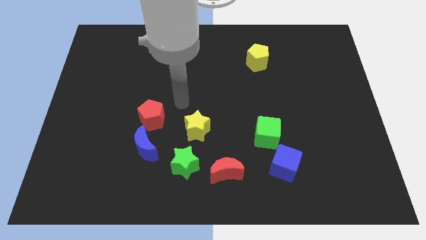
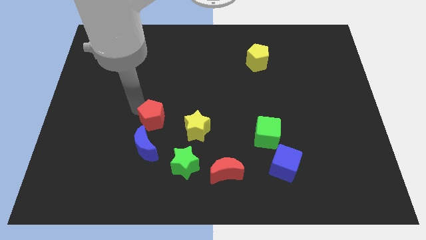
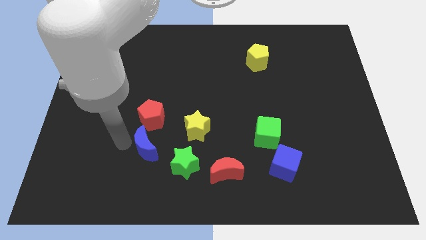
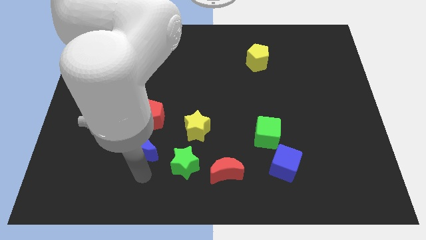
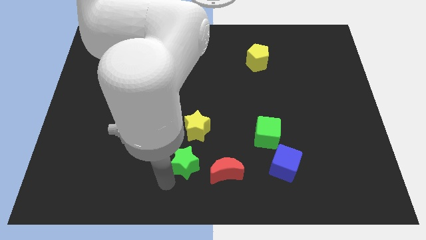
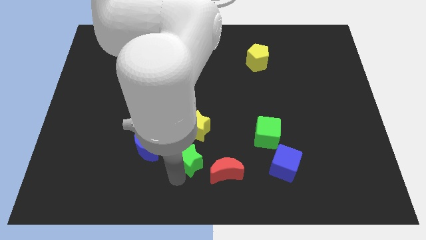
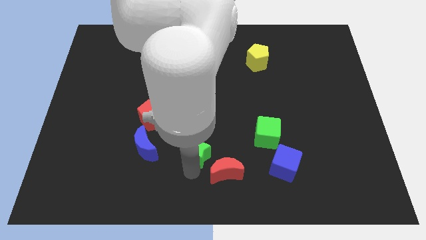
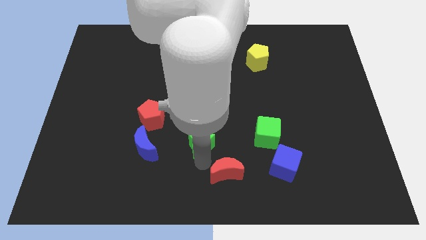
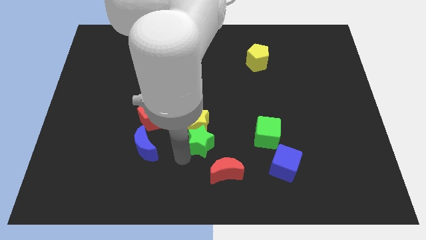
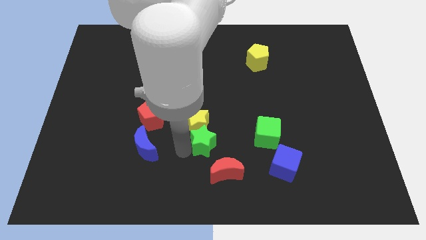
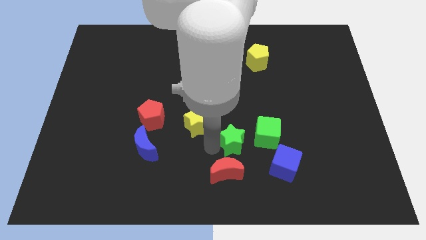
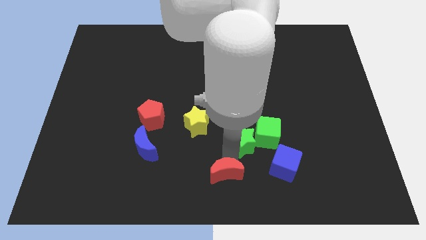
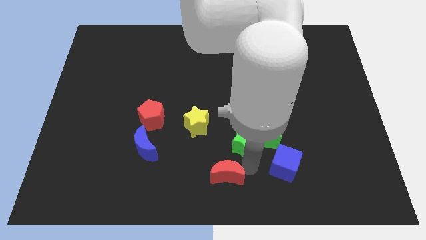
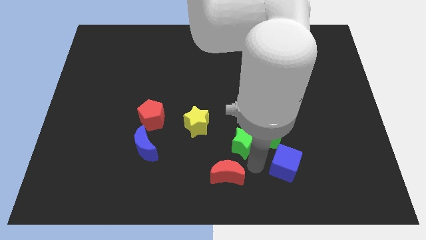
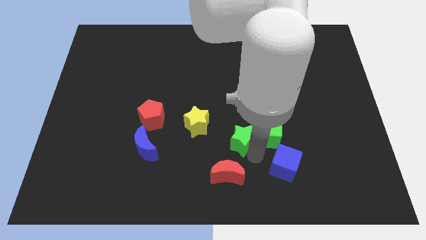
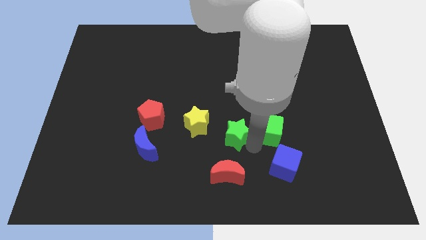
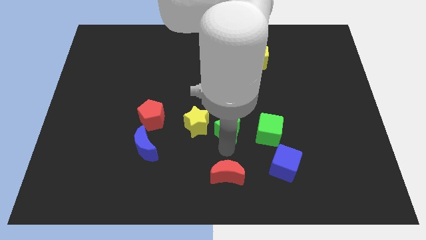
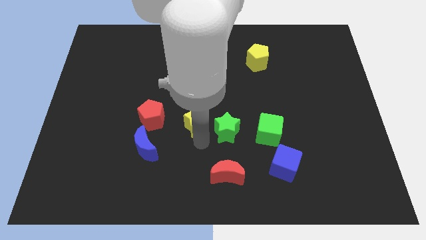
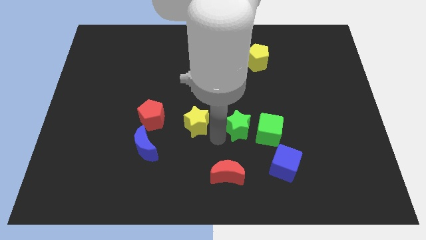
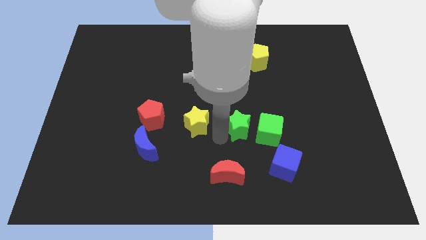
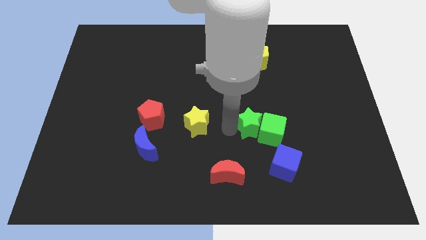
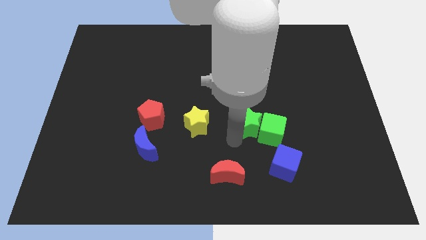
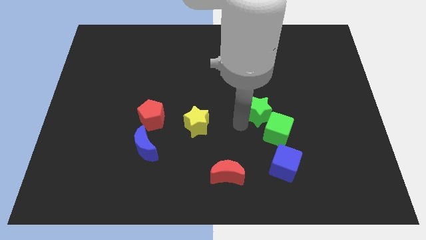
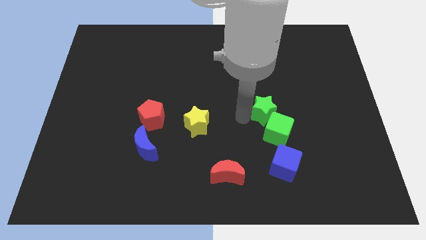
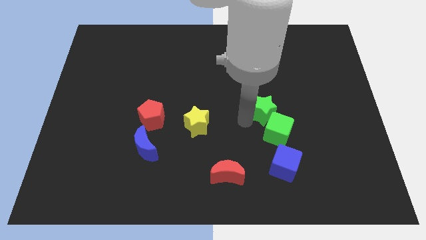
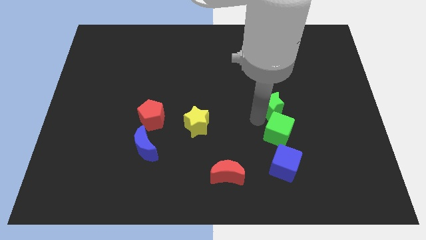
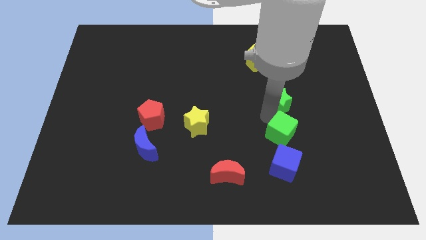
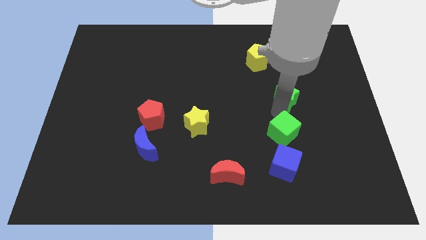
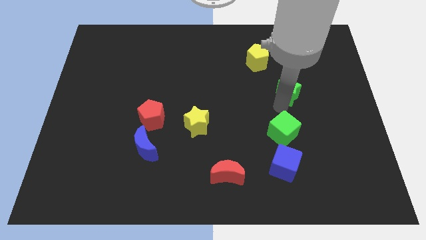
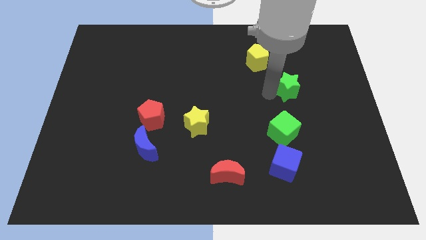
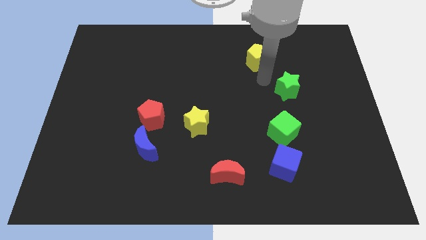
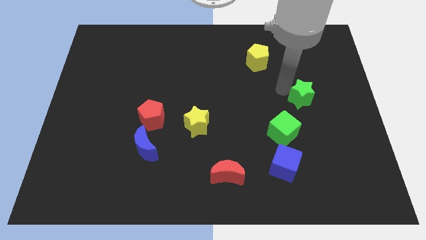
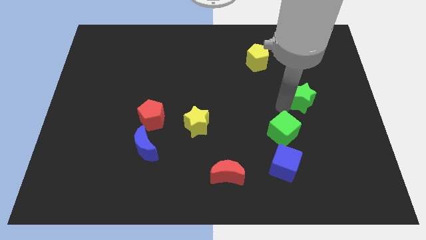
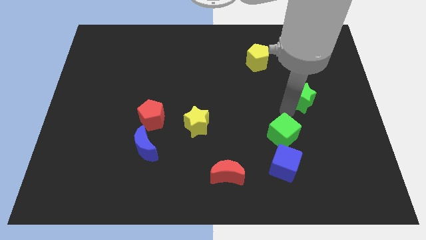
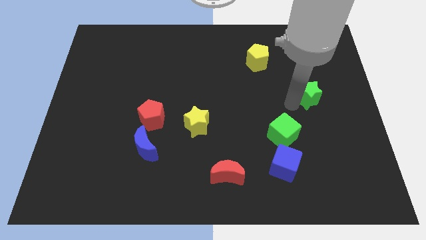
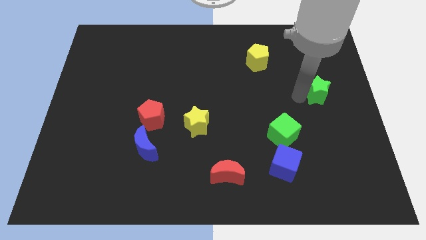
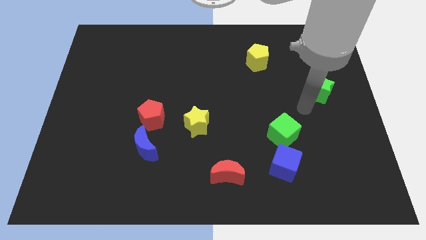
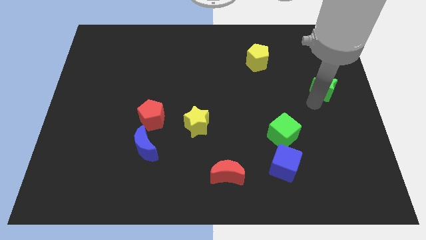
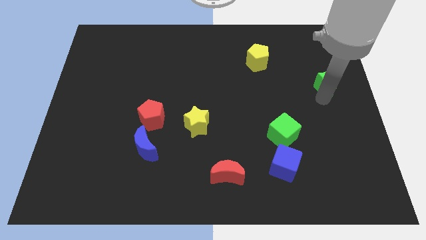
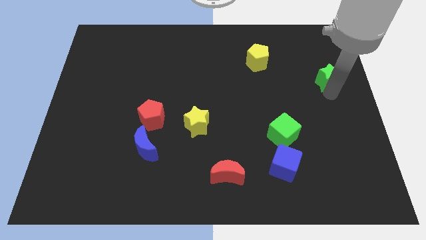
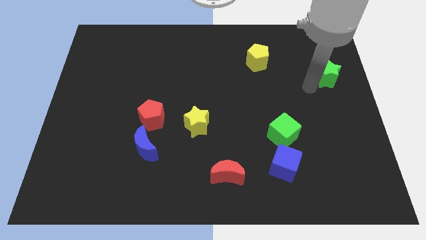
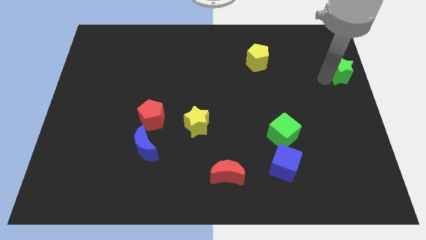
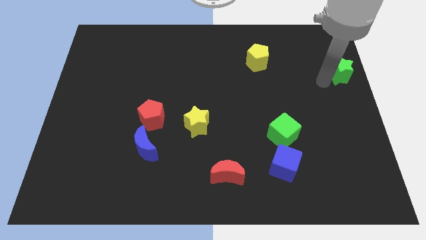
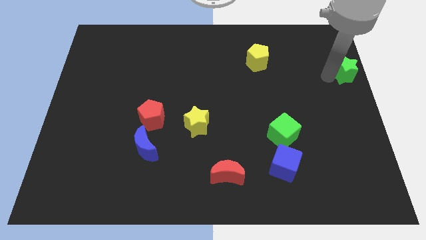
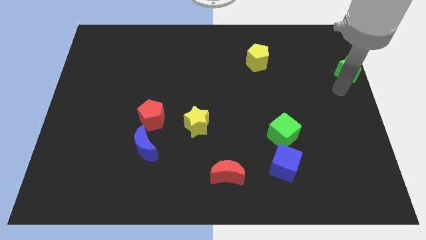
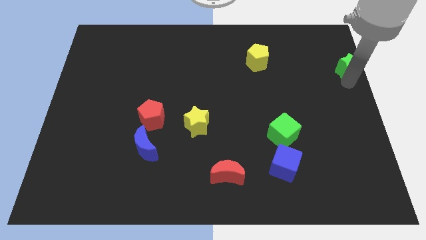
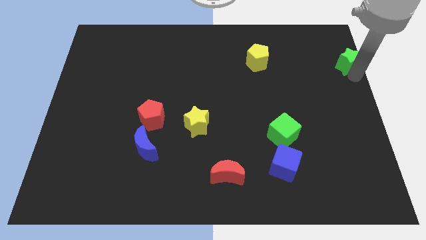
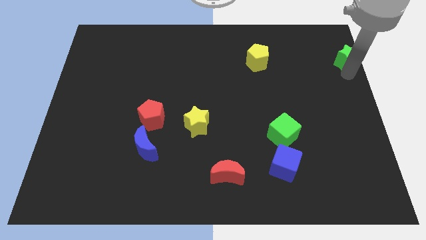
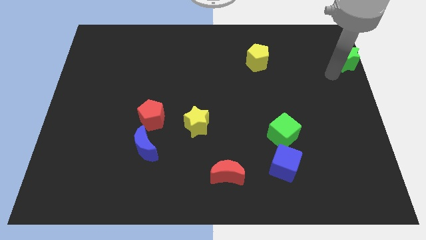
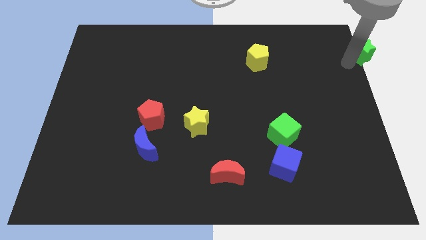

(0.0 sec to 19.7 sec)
slide the green star to the upper right corner

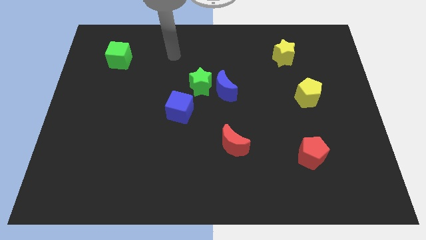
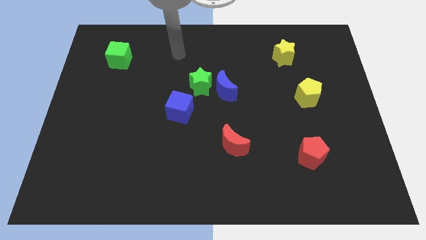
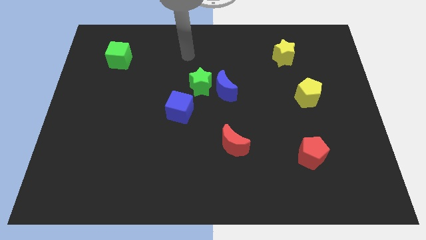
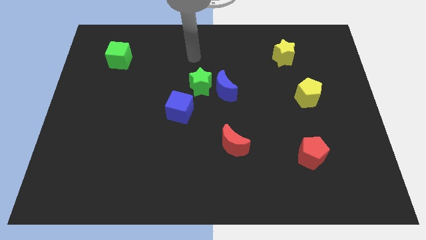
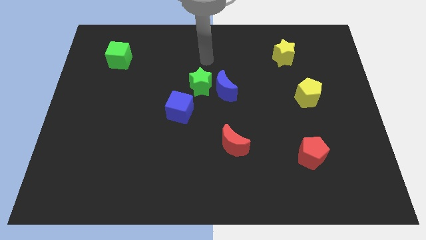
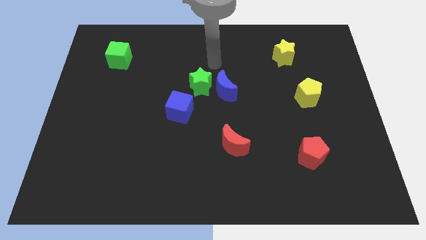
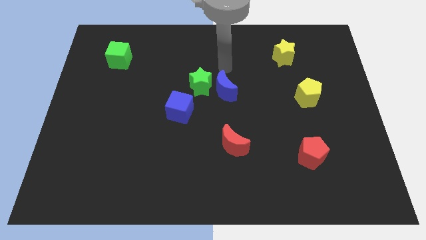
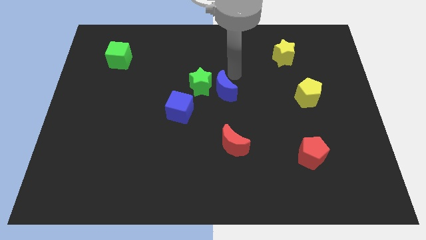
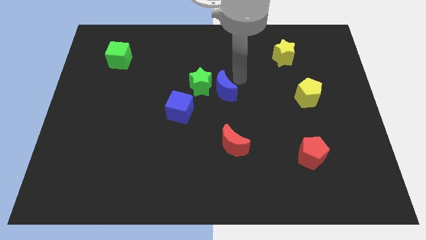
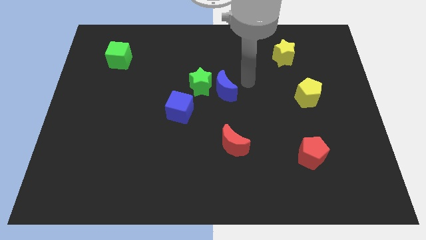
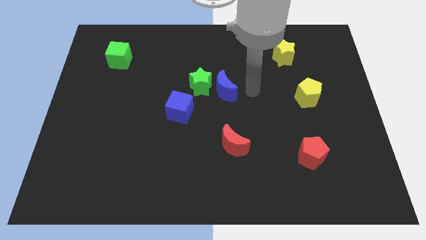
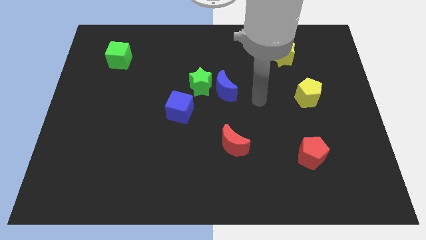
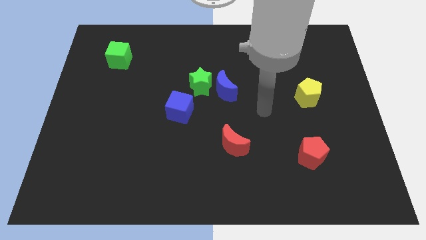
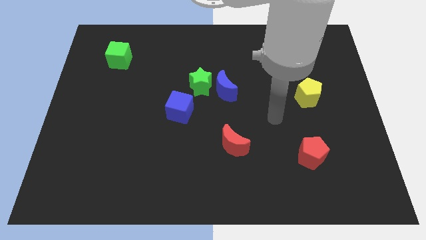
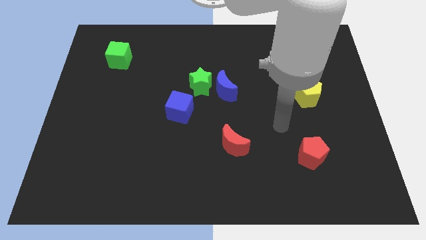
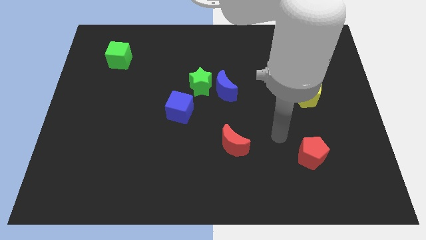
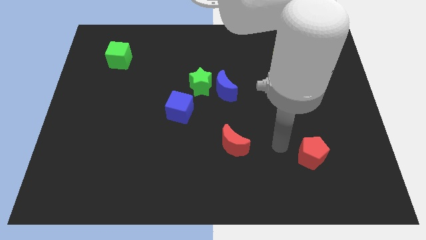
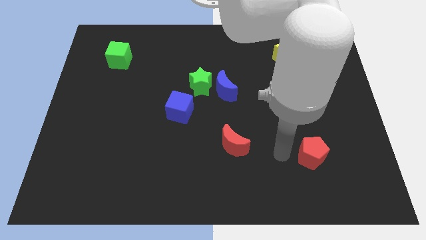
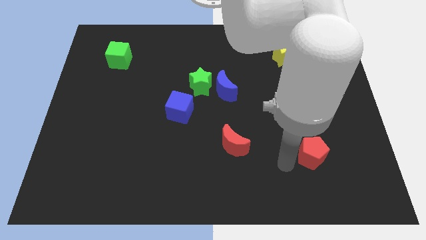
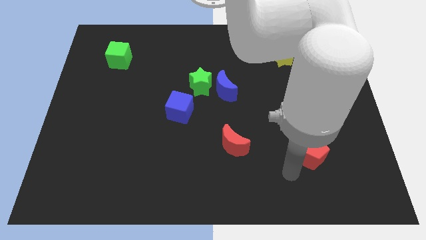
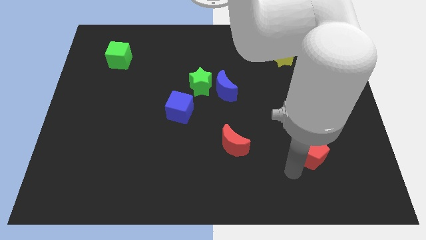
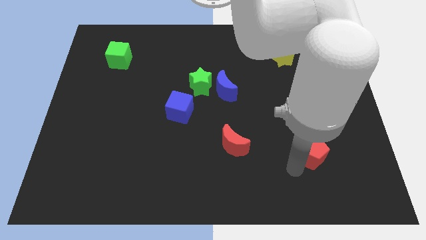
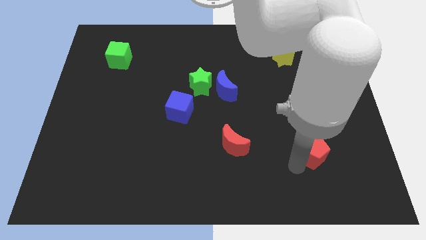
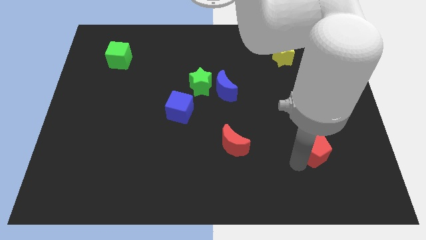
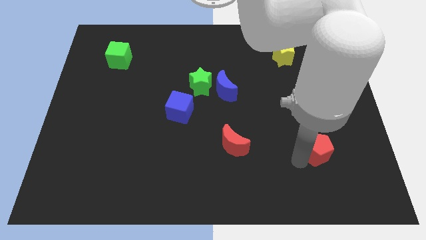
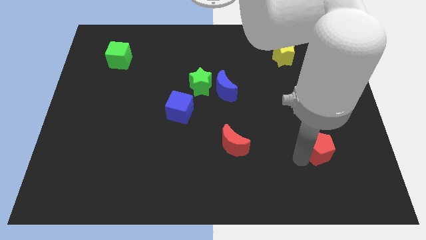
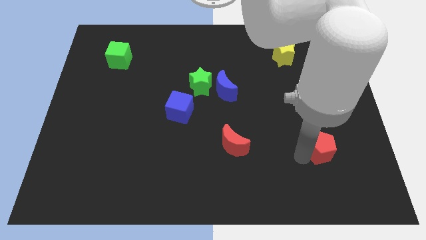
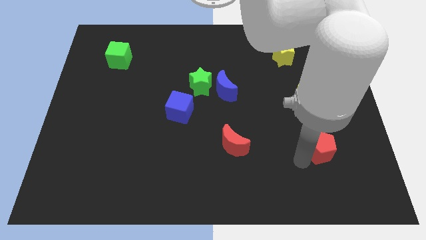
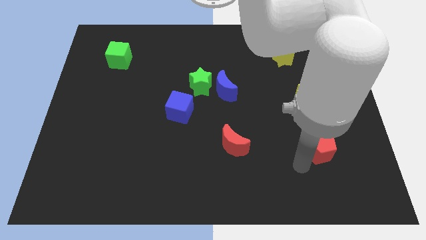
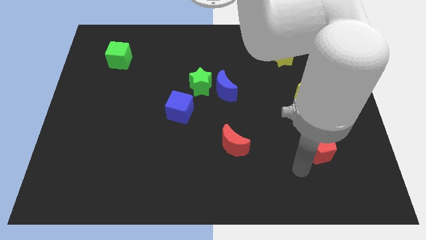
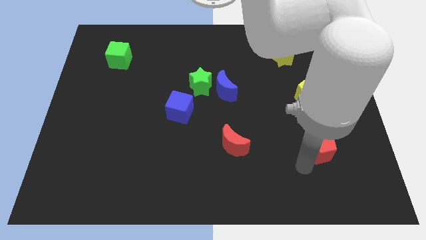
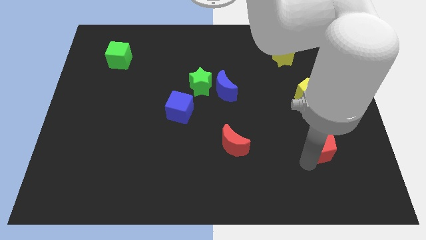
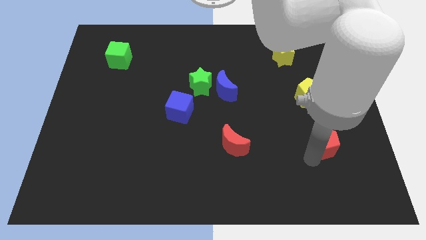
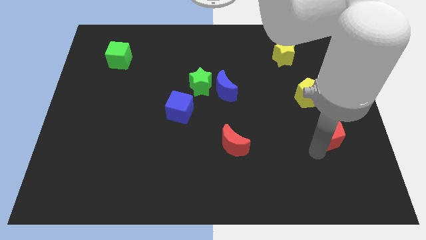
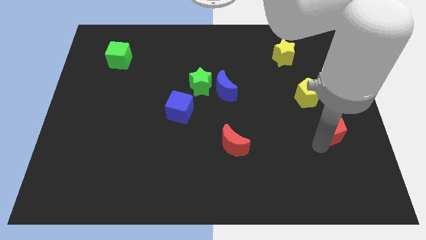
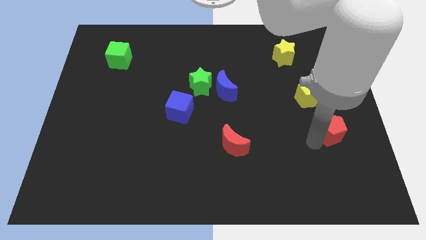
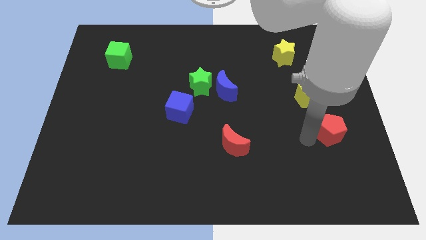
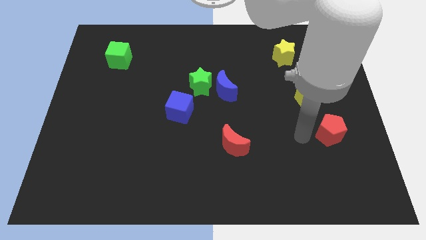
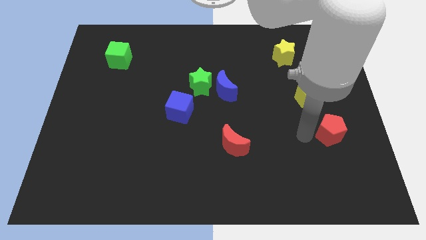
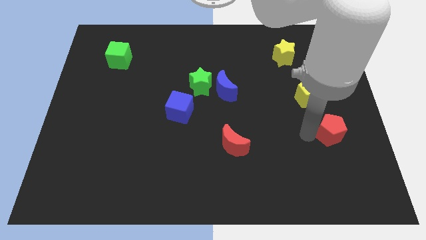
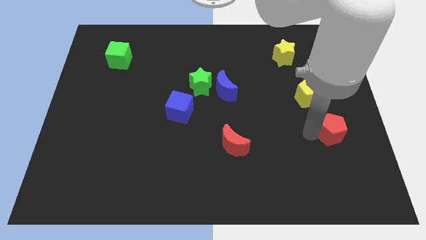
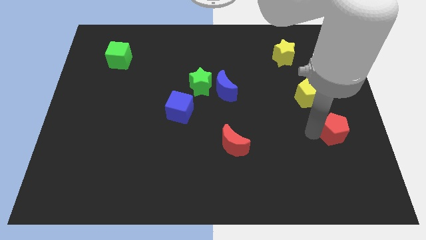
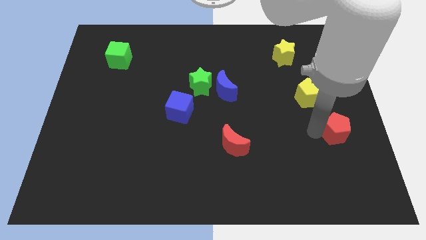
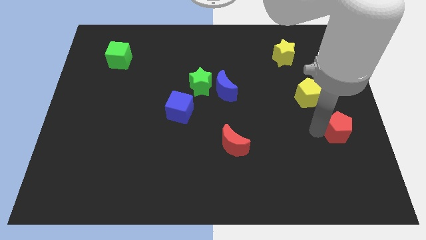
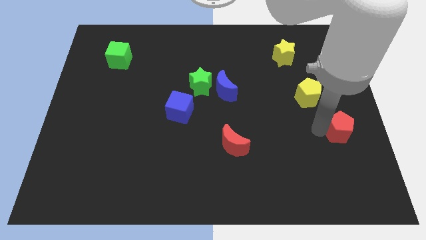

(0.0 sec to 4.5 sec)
slide the red pentagon to the right side
